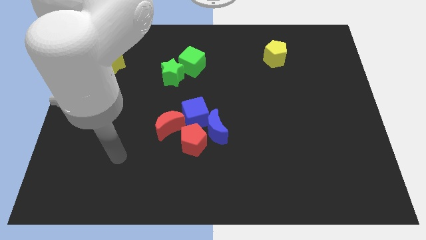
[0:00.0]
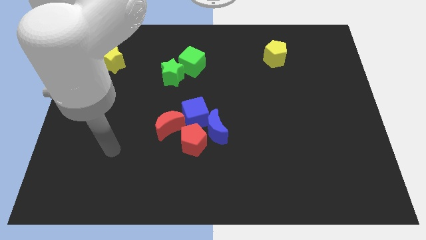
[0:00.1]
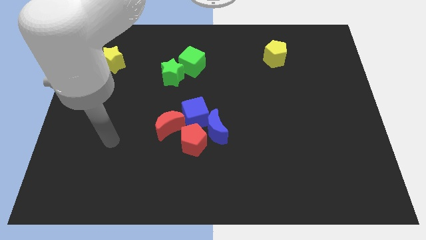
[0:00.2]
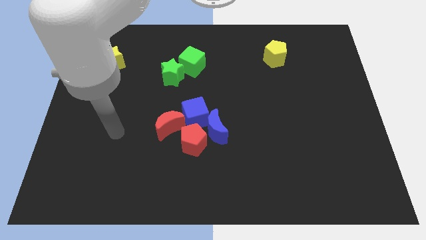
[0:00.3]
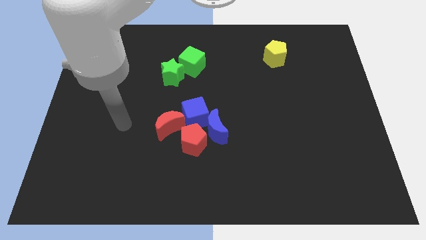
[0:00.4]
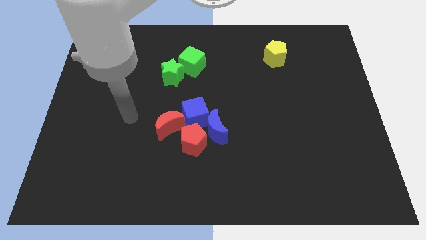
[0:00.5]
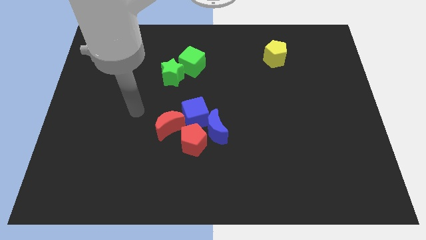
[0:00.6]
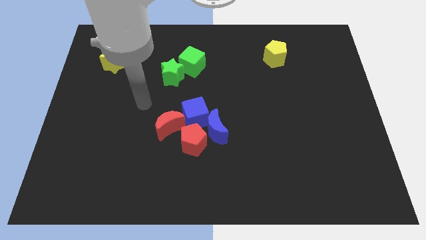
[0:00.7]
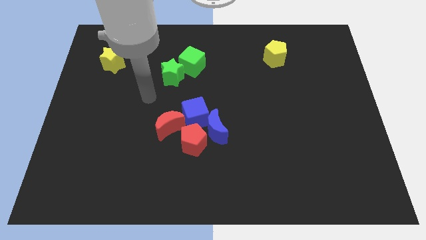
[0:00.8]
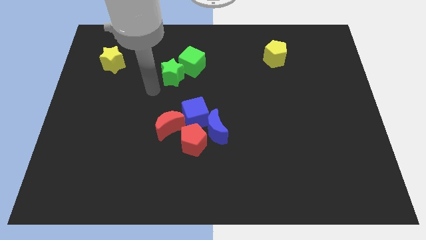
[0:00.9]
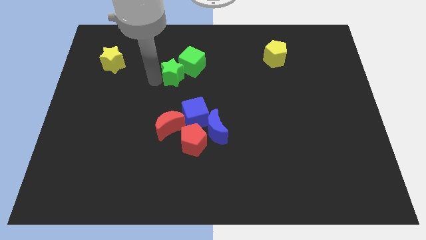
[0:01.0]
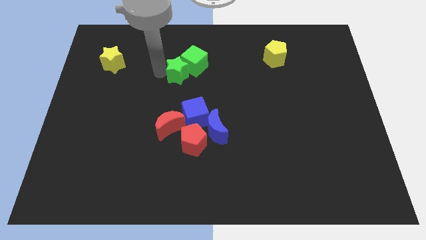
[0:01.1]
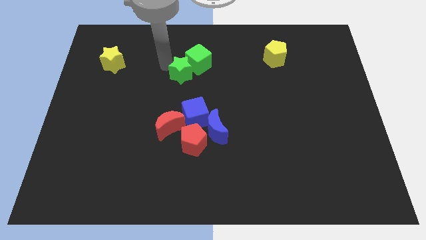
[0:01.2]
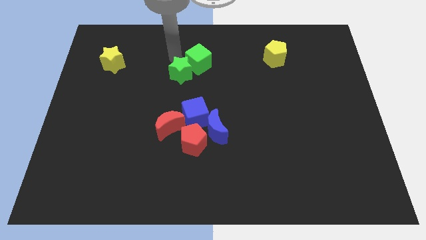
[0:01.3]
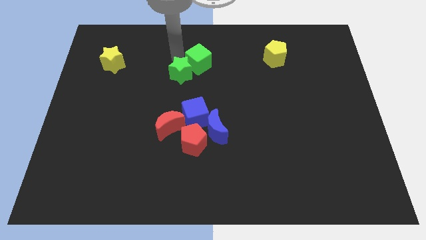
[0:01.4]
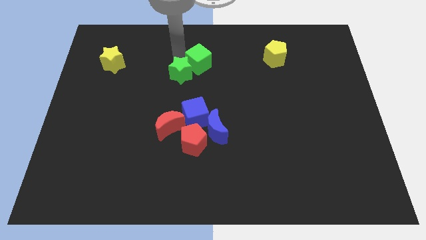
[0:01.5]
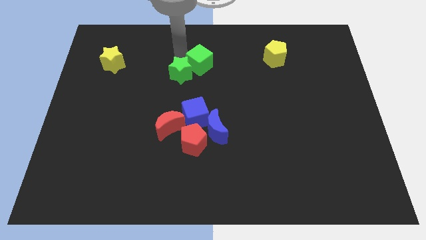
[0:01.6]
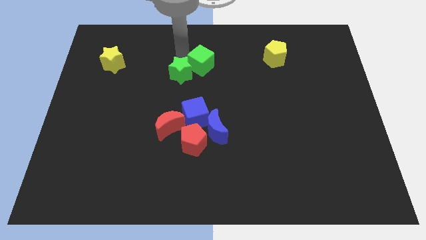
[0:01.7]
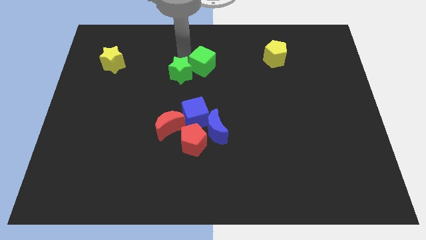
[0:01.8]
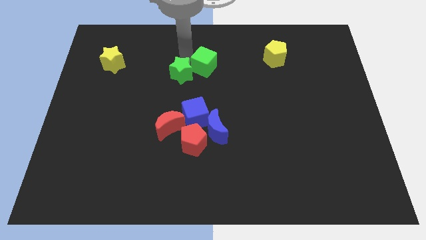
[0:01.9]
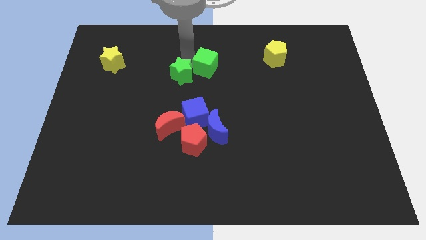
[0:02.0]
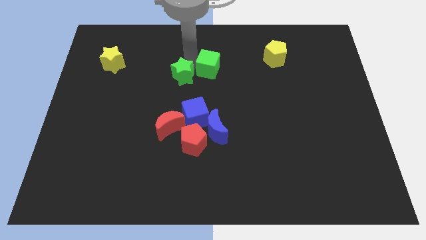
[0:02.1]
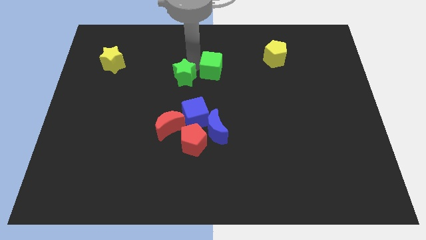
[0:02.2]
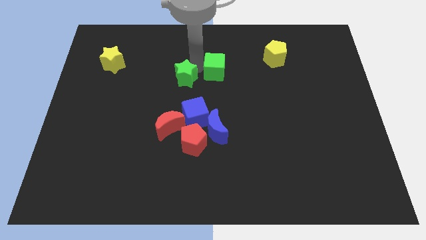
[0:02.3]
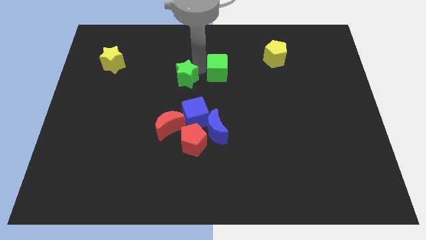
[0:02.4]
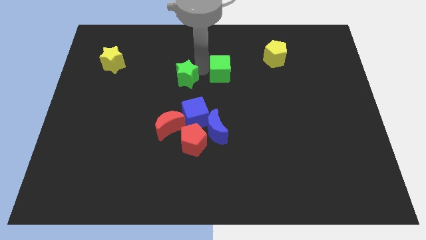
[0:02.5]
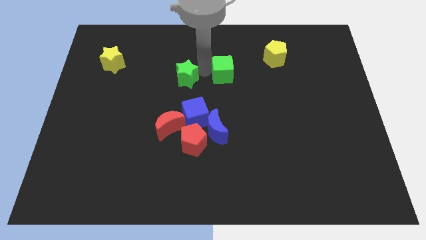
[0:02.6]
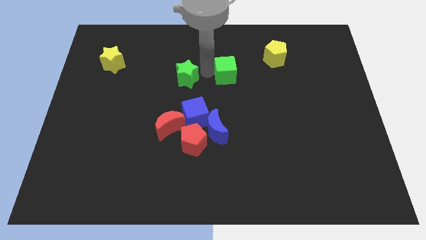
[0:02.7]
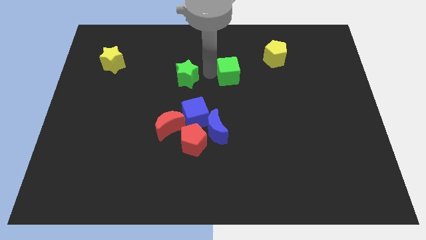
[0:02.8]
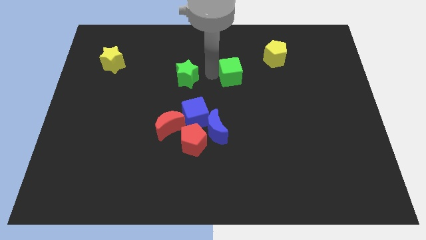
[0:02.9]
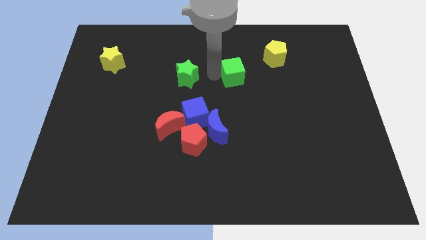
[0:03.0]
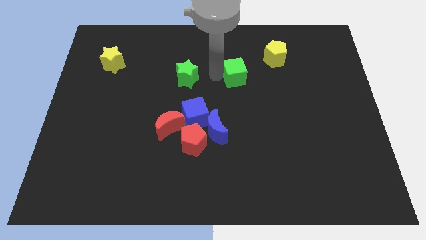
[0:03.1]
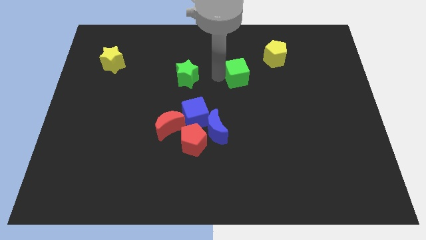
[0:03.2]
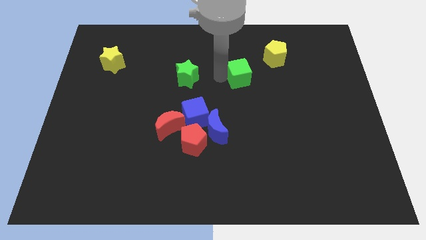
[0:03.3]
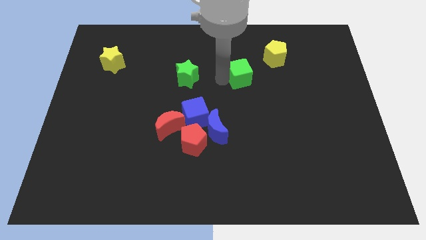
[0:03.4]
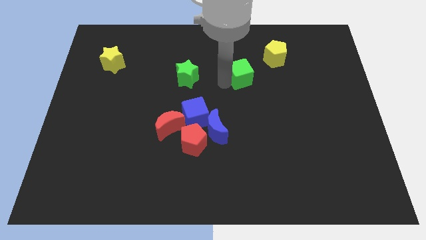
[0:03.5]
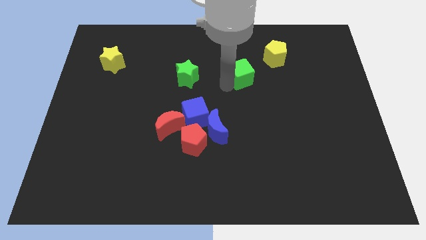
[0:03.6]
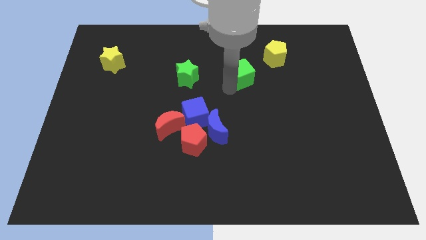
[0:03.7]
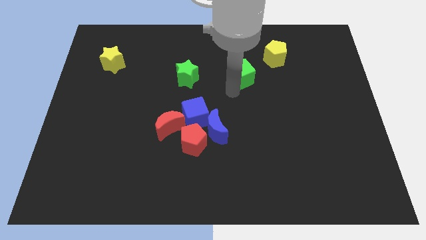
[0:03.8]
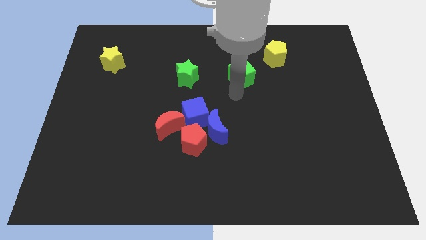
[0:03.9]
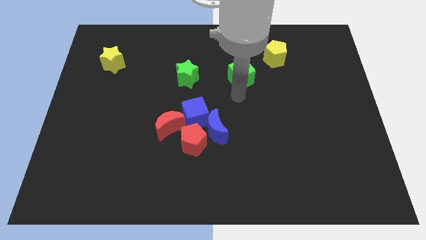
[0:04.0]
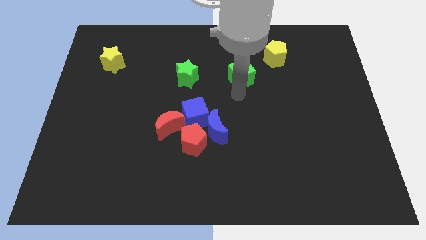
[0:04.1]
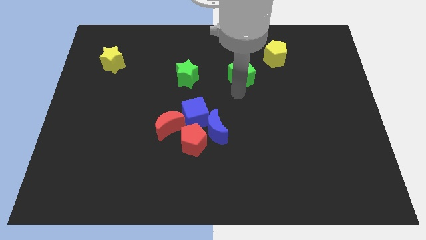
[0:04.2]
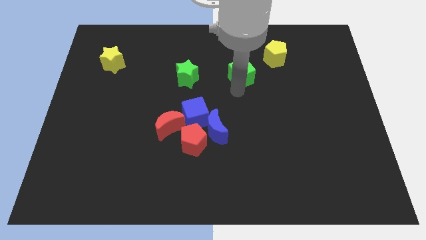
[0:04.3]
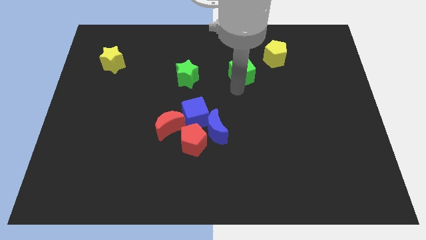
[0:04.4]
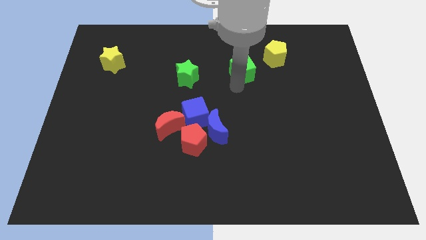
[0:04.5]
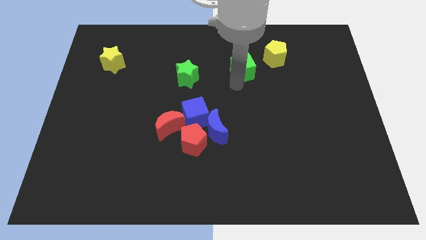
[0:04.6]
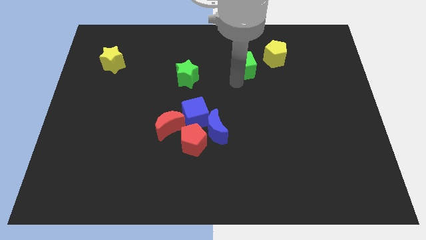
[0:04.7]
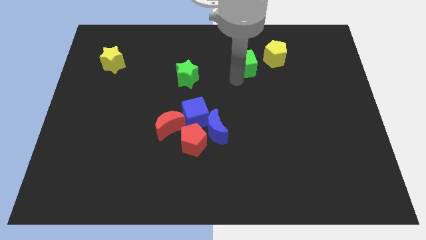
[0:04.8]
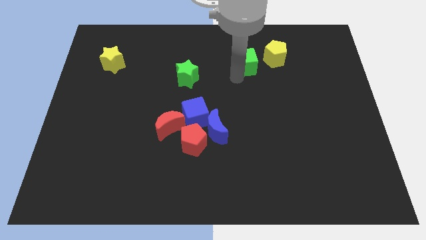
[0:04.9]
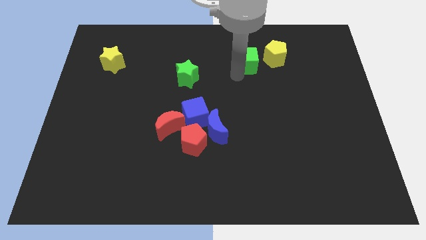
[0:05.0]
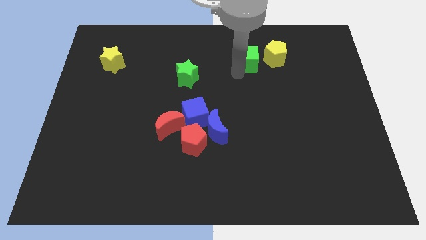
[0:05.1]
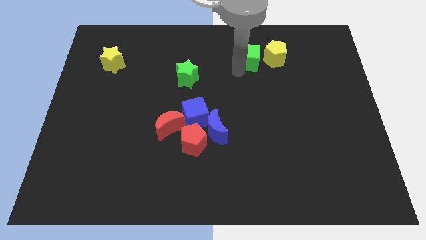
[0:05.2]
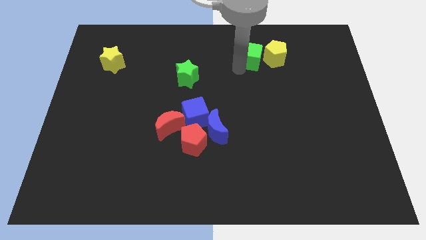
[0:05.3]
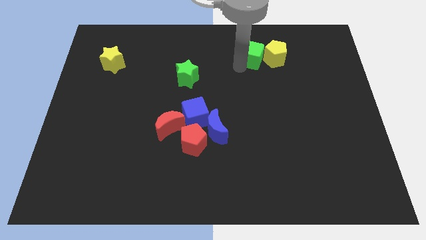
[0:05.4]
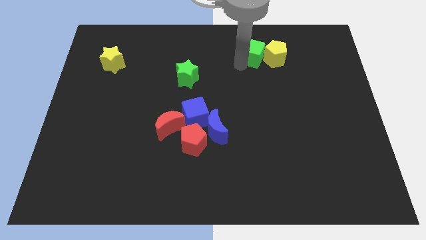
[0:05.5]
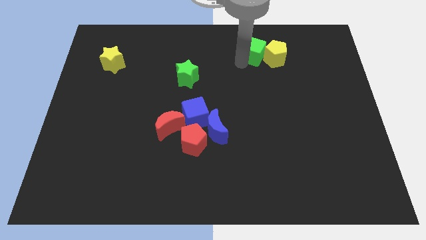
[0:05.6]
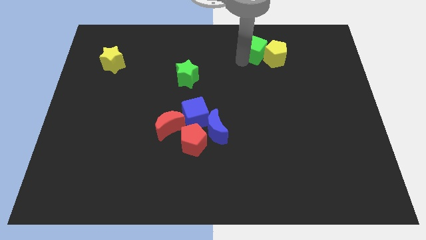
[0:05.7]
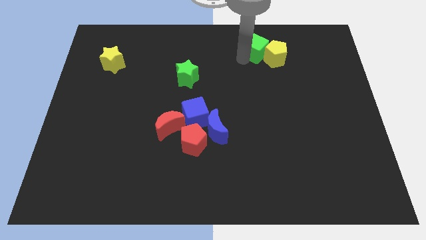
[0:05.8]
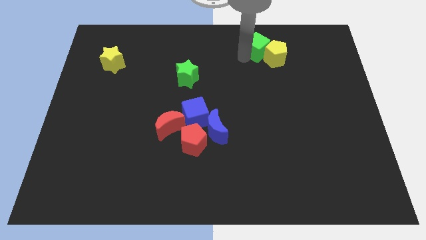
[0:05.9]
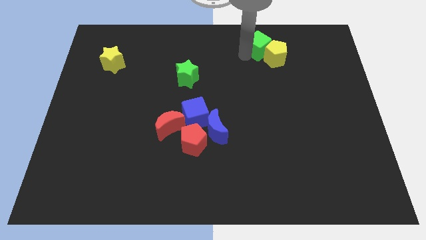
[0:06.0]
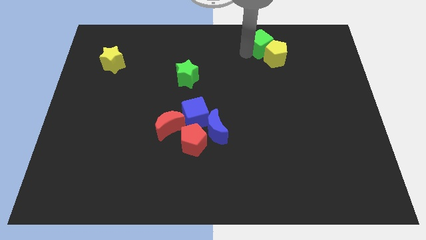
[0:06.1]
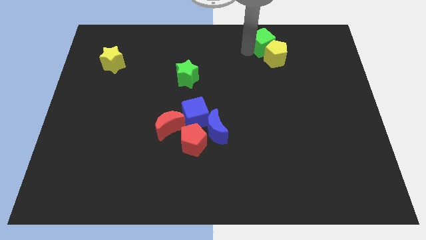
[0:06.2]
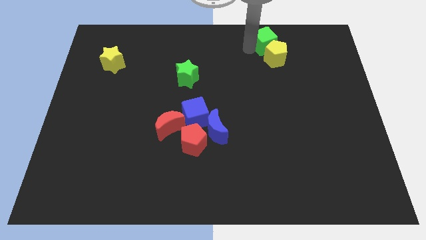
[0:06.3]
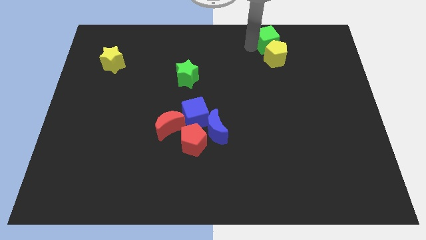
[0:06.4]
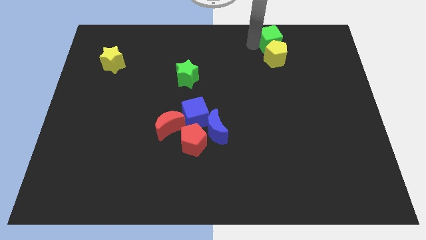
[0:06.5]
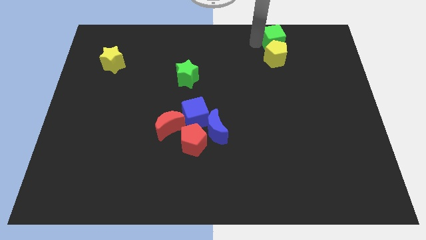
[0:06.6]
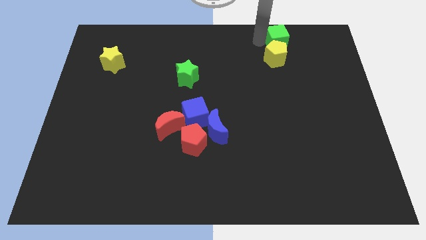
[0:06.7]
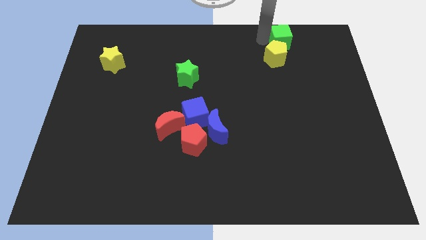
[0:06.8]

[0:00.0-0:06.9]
move the green cube right

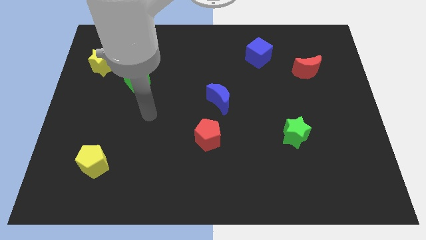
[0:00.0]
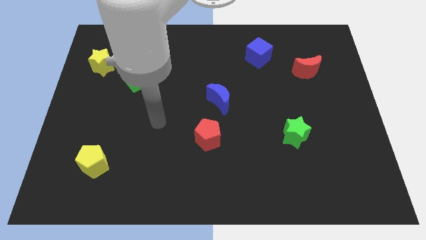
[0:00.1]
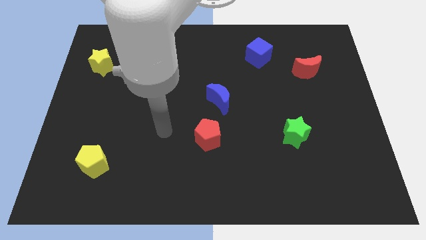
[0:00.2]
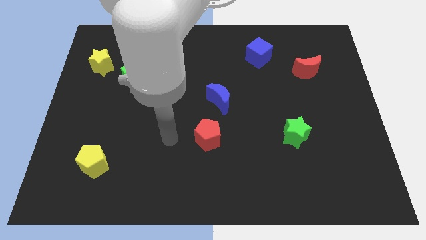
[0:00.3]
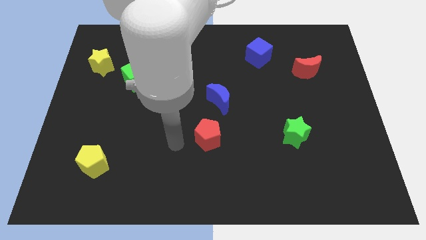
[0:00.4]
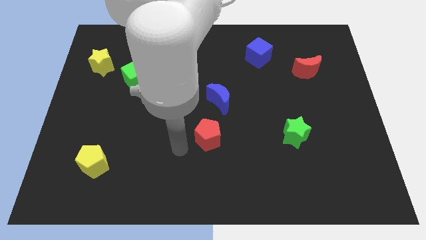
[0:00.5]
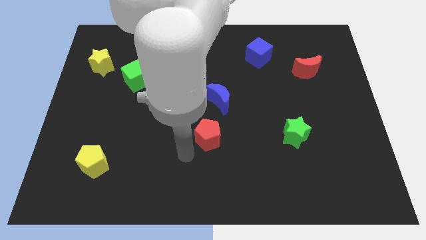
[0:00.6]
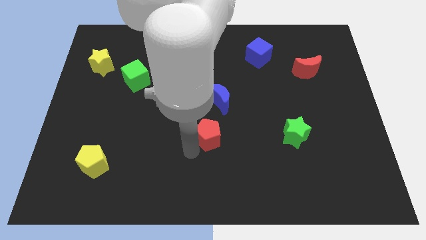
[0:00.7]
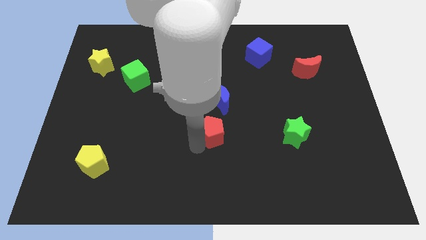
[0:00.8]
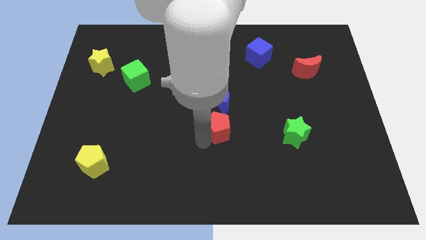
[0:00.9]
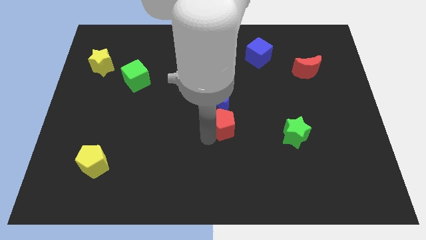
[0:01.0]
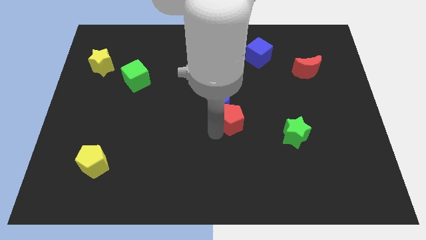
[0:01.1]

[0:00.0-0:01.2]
move the red pentagon up and to the right diagonally a little bit

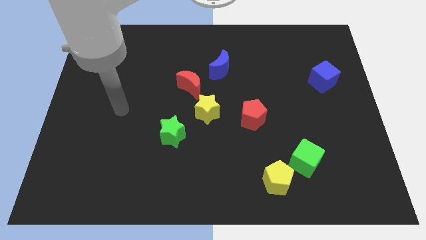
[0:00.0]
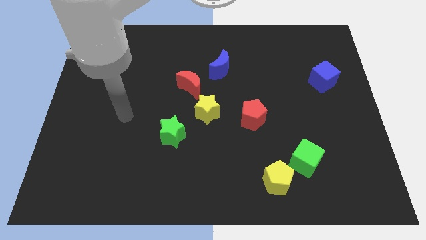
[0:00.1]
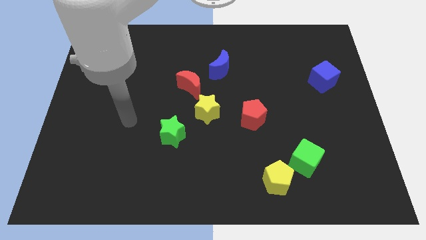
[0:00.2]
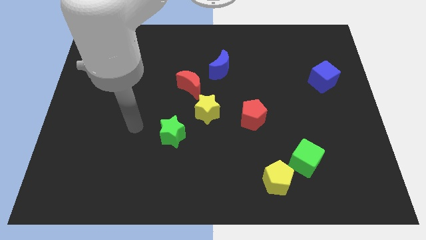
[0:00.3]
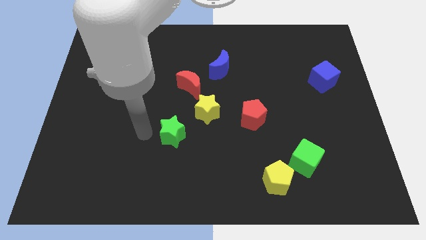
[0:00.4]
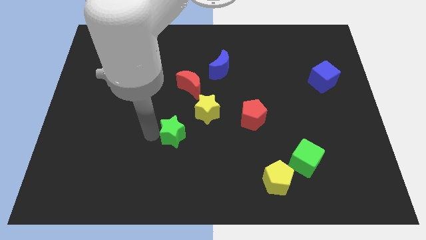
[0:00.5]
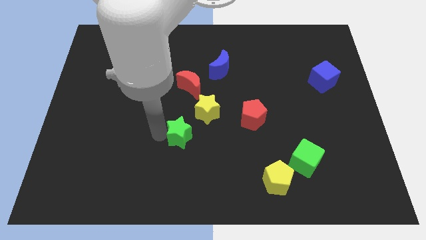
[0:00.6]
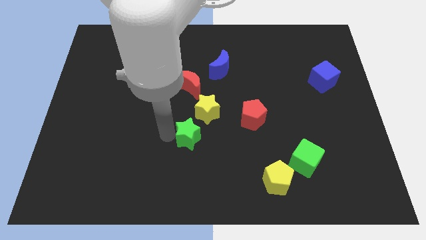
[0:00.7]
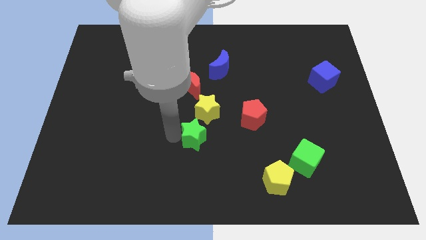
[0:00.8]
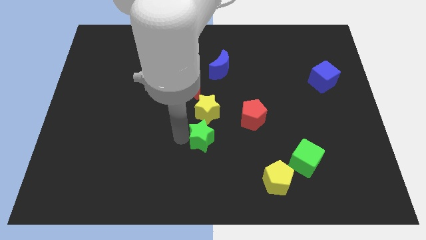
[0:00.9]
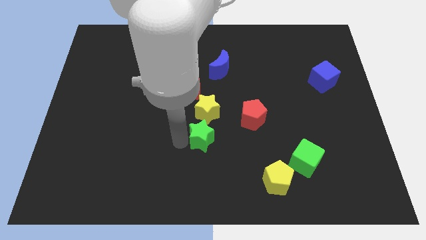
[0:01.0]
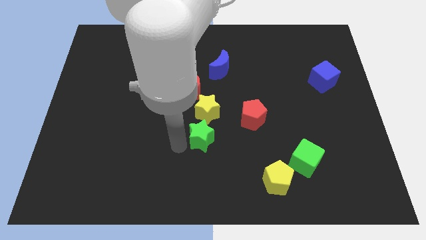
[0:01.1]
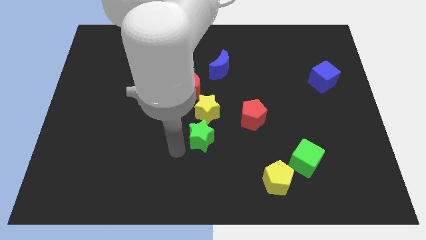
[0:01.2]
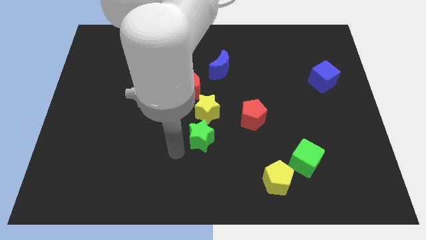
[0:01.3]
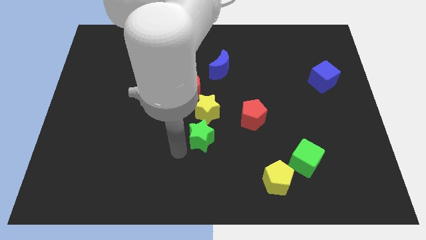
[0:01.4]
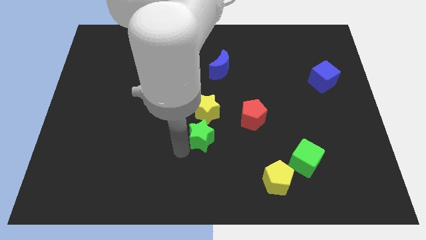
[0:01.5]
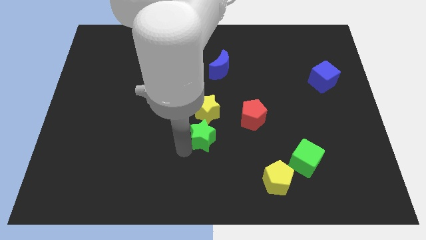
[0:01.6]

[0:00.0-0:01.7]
slide the green star right somewhat
